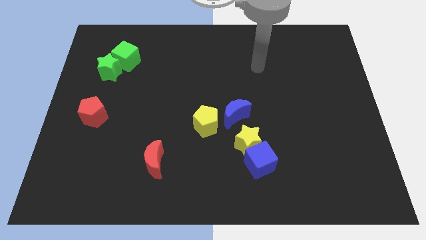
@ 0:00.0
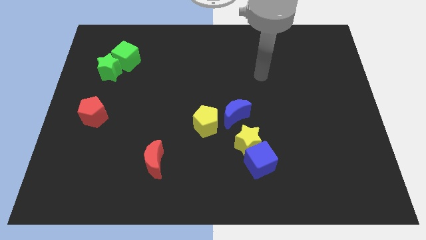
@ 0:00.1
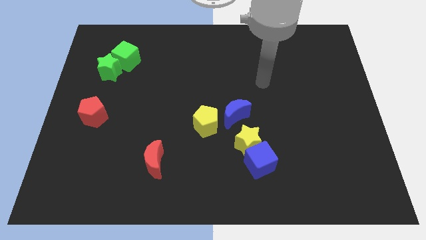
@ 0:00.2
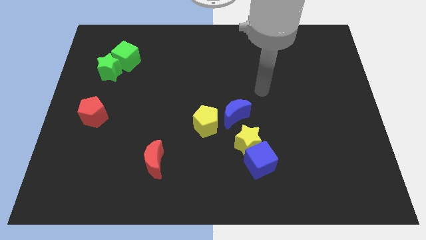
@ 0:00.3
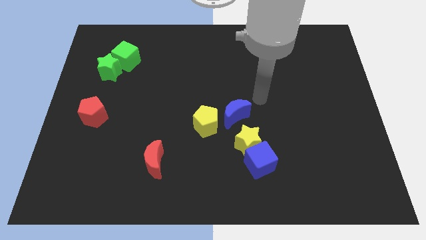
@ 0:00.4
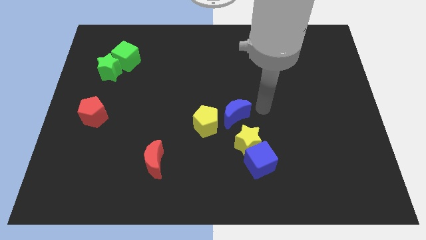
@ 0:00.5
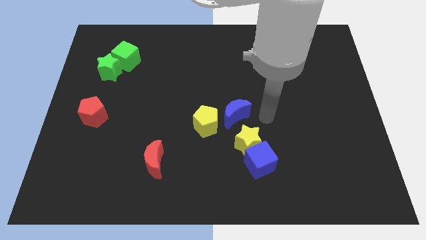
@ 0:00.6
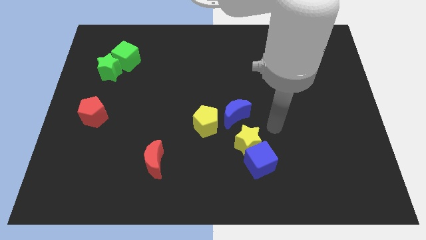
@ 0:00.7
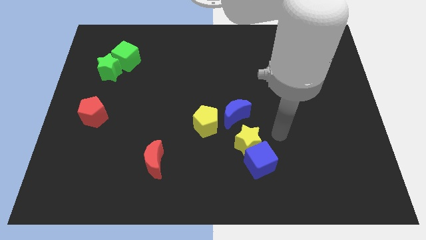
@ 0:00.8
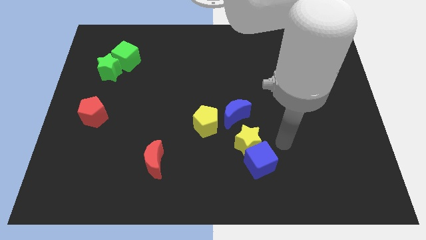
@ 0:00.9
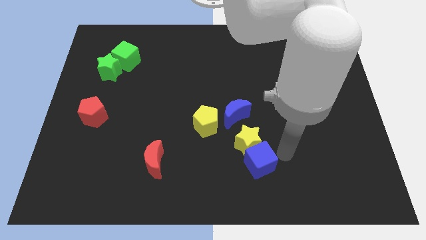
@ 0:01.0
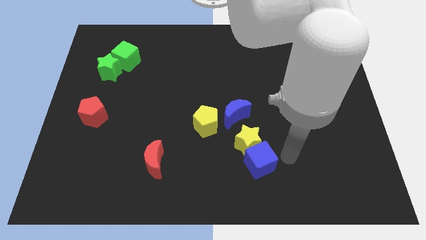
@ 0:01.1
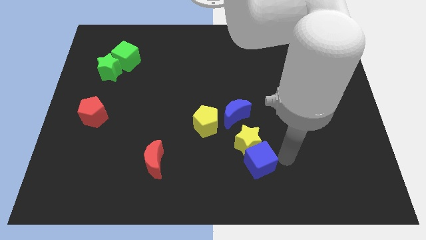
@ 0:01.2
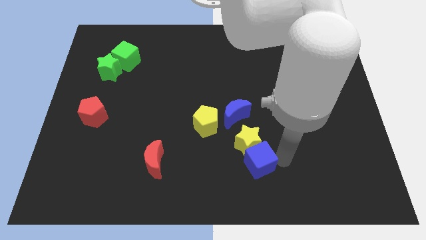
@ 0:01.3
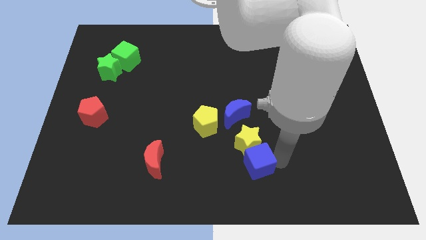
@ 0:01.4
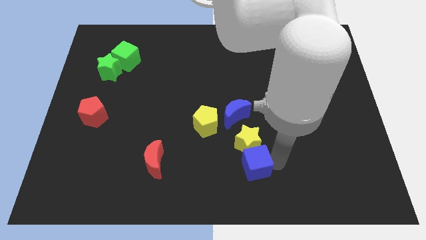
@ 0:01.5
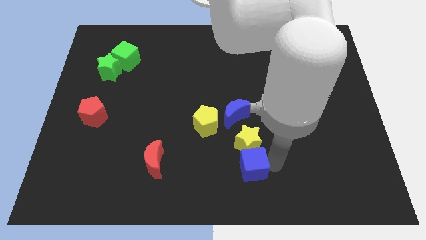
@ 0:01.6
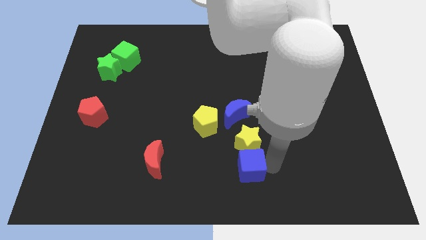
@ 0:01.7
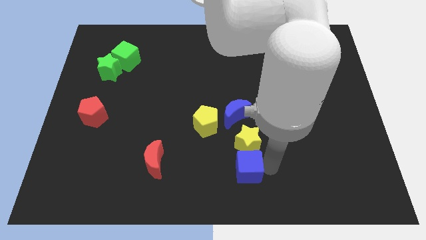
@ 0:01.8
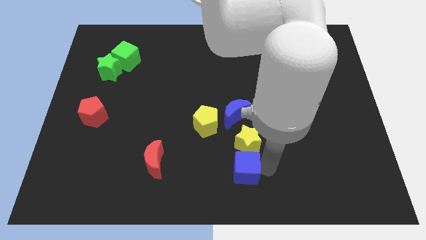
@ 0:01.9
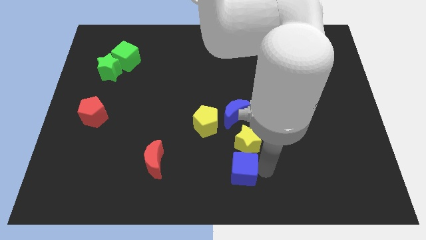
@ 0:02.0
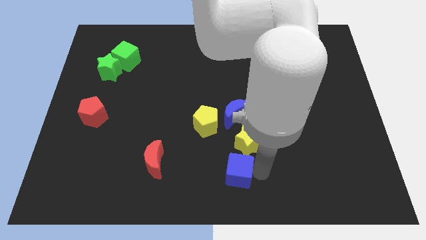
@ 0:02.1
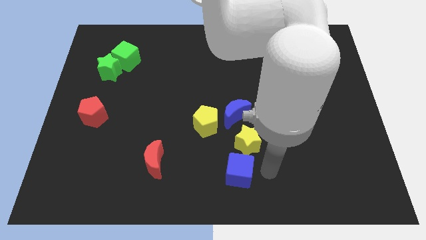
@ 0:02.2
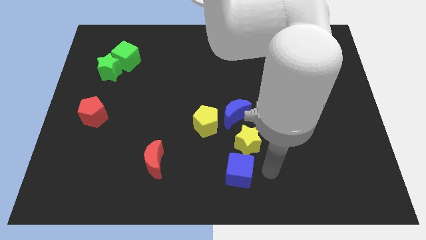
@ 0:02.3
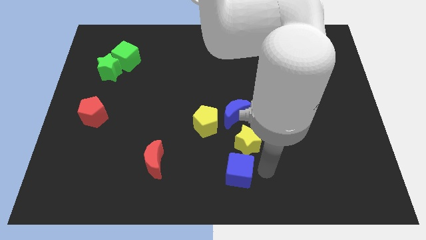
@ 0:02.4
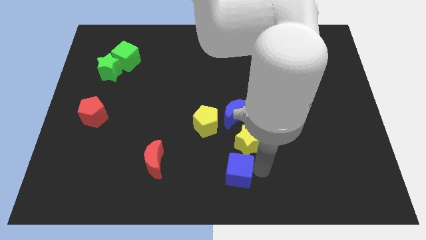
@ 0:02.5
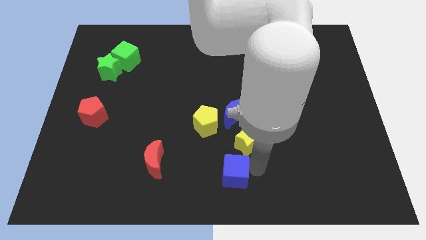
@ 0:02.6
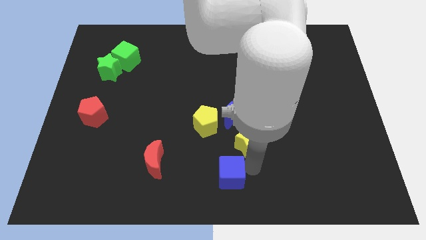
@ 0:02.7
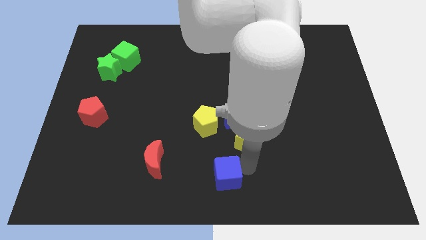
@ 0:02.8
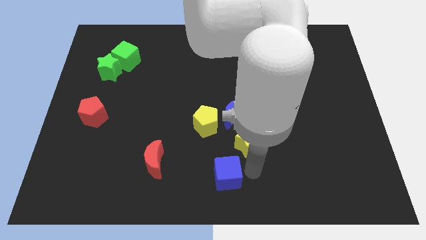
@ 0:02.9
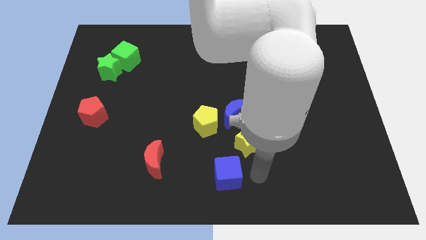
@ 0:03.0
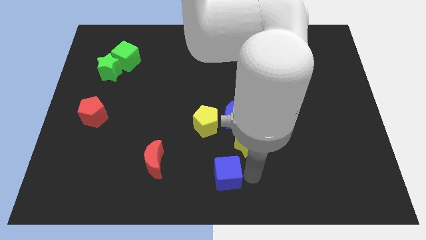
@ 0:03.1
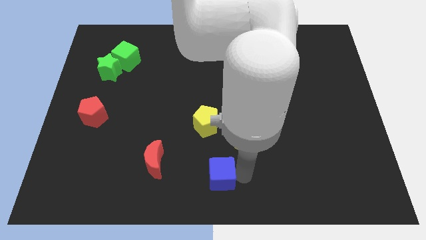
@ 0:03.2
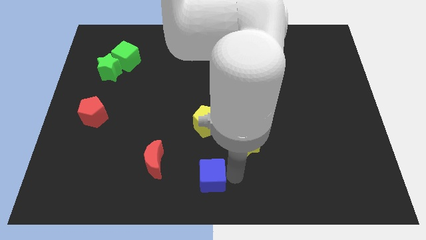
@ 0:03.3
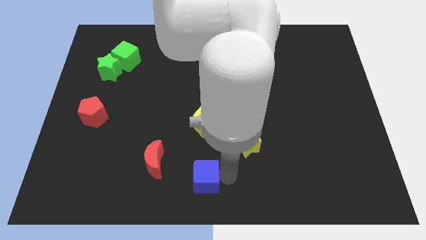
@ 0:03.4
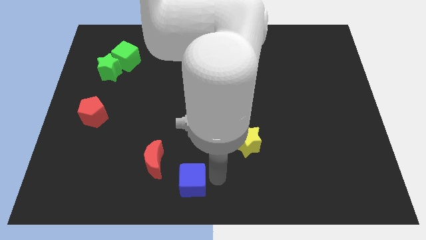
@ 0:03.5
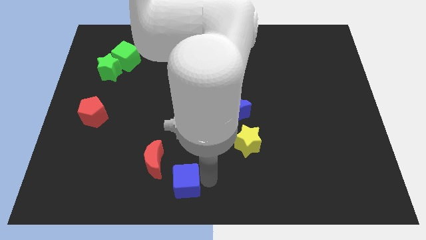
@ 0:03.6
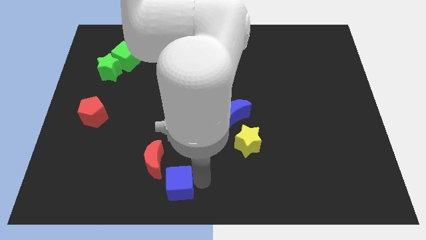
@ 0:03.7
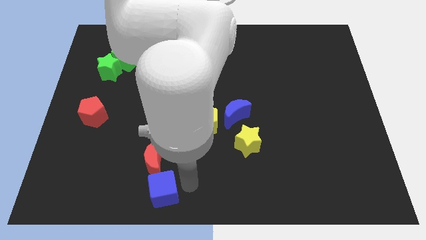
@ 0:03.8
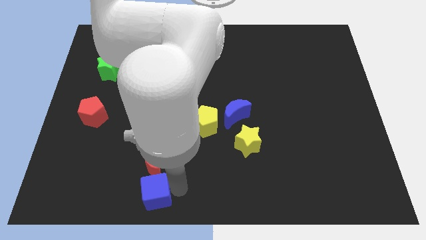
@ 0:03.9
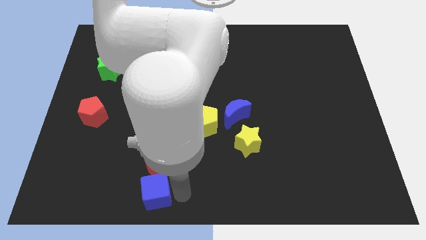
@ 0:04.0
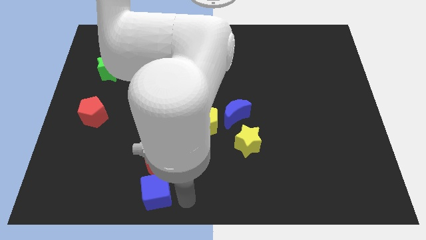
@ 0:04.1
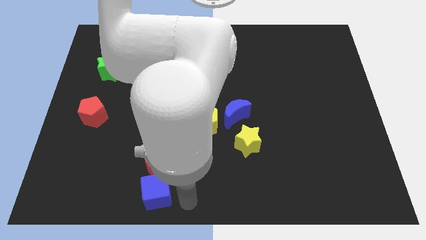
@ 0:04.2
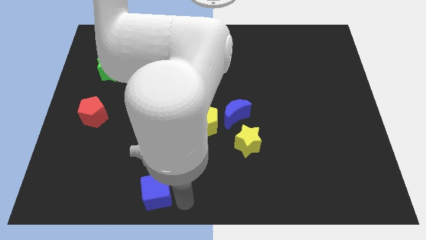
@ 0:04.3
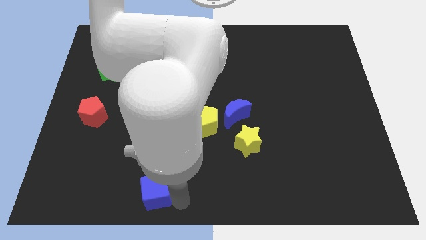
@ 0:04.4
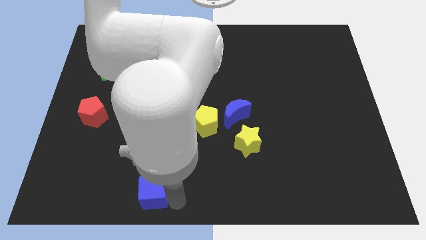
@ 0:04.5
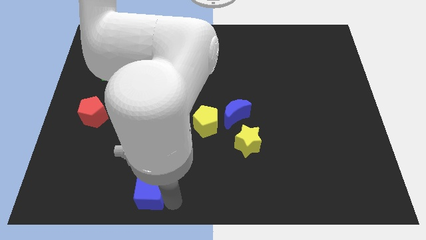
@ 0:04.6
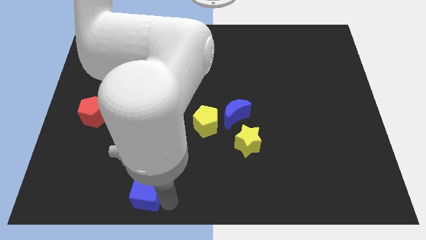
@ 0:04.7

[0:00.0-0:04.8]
push the blue cube to the bottom left side of the red moon

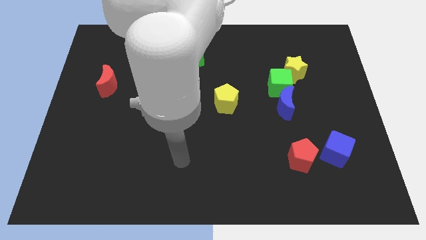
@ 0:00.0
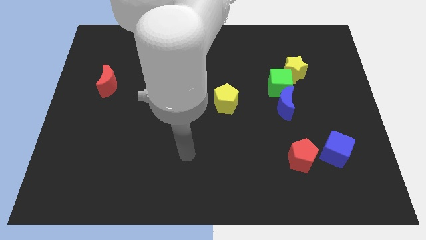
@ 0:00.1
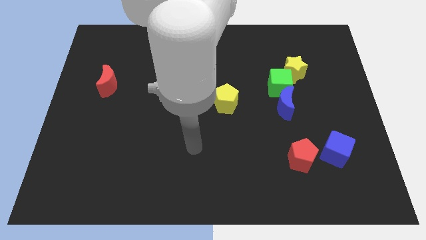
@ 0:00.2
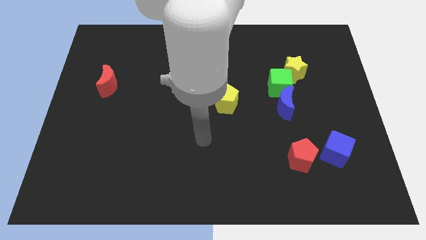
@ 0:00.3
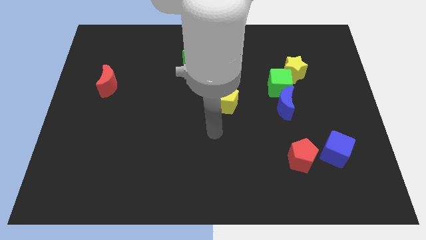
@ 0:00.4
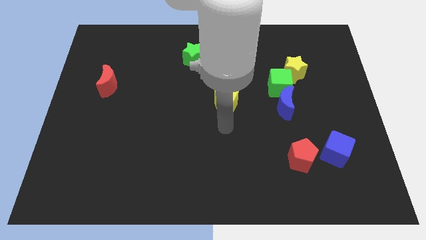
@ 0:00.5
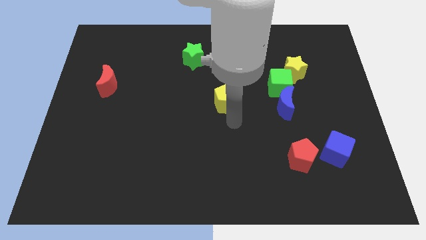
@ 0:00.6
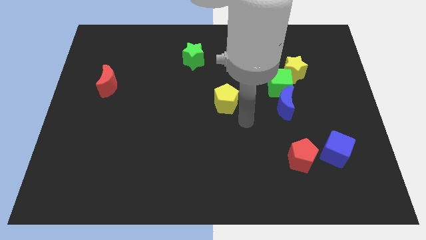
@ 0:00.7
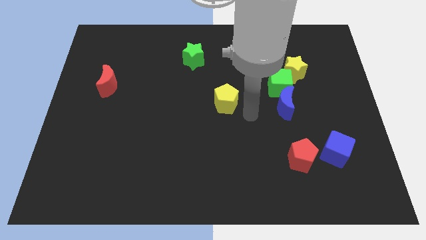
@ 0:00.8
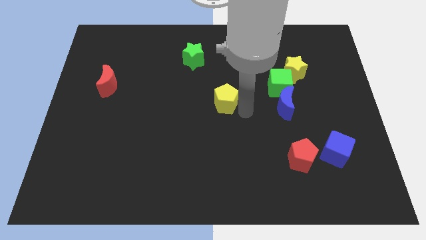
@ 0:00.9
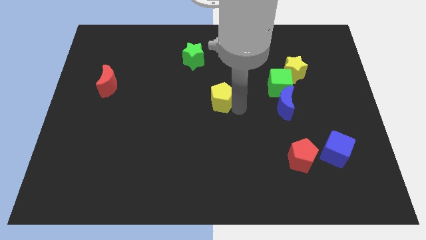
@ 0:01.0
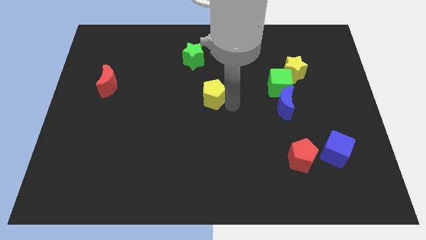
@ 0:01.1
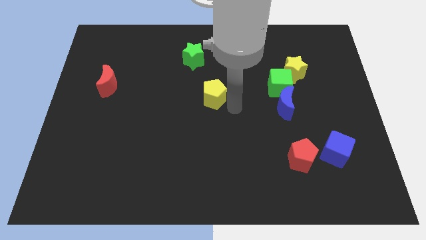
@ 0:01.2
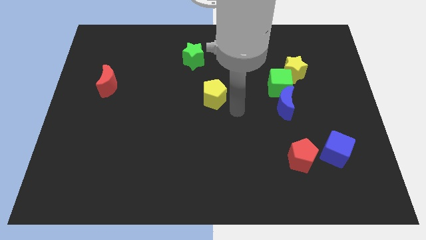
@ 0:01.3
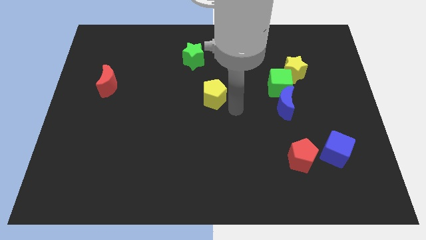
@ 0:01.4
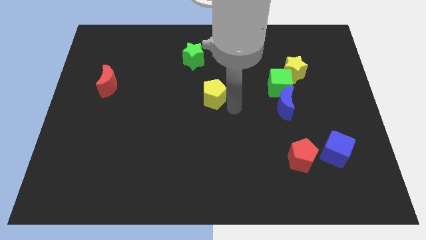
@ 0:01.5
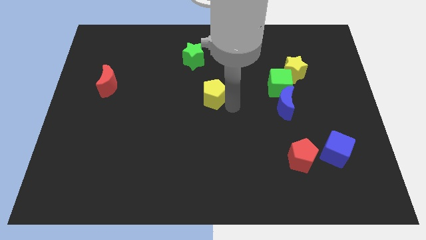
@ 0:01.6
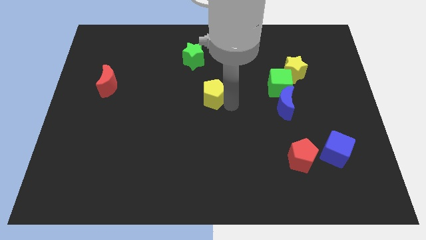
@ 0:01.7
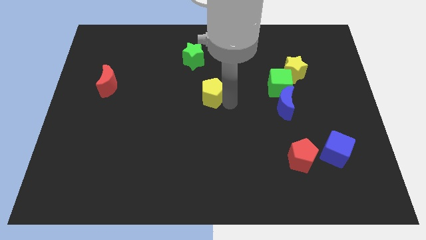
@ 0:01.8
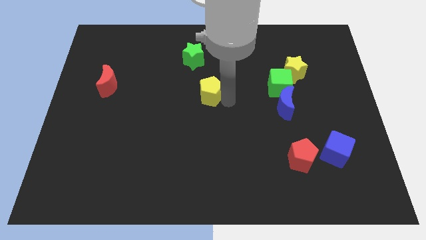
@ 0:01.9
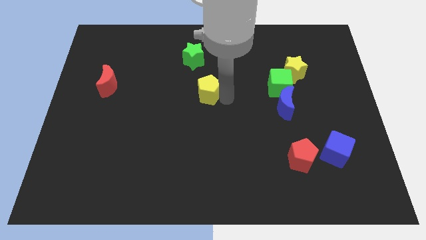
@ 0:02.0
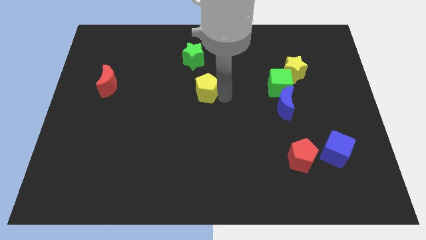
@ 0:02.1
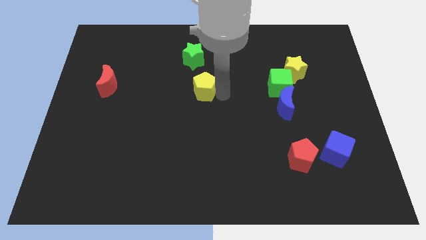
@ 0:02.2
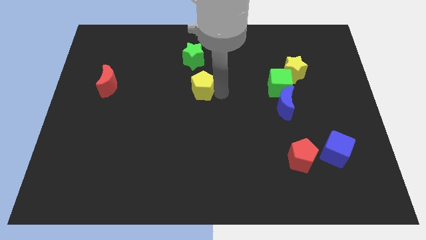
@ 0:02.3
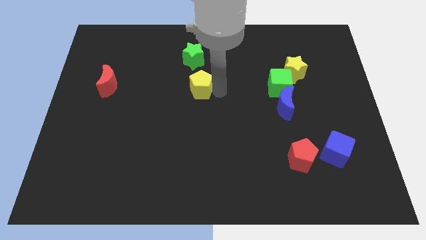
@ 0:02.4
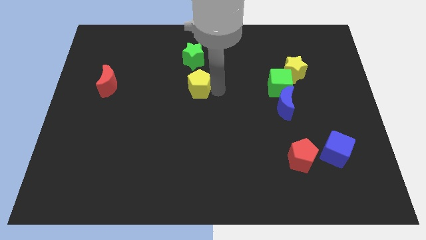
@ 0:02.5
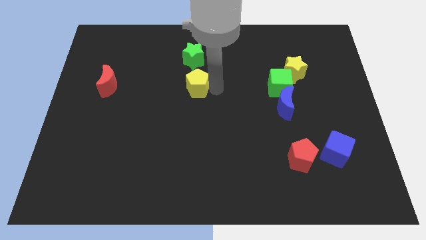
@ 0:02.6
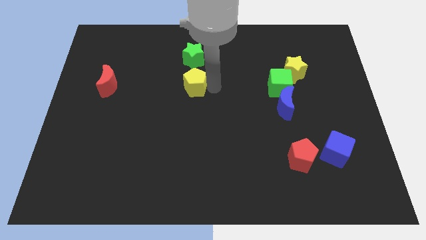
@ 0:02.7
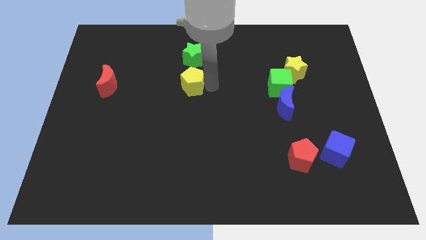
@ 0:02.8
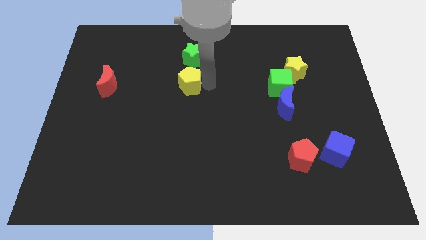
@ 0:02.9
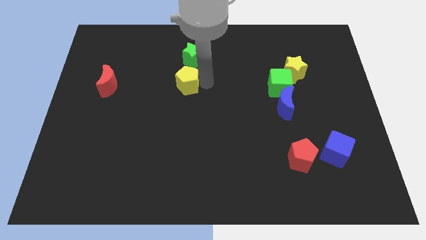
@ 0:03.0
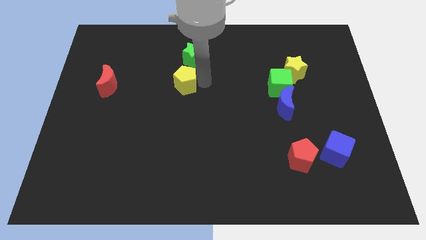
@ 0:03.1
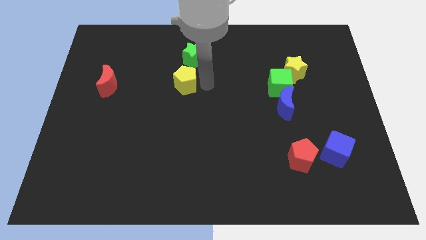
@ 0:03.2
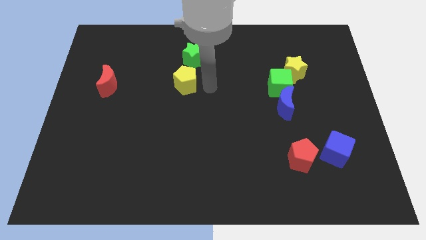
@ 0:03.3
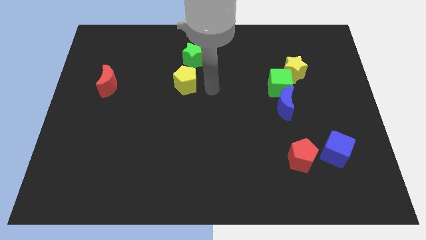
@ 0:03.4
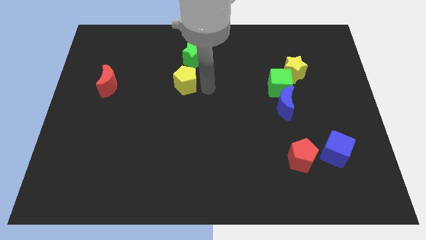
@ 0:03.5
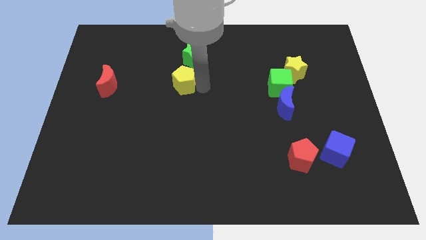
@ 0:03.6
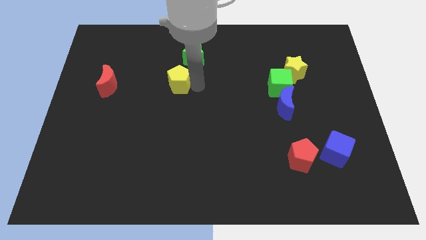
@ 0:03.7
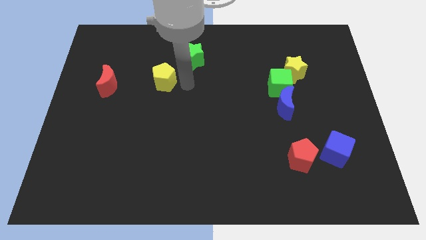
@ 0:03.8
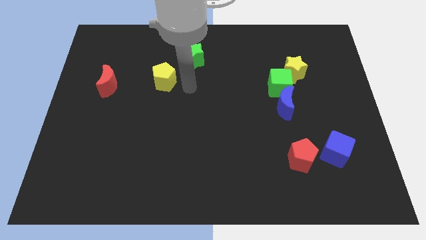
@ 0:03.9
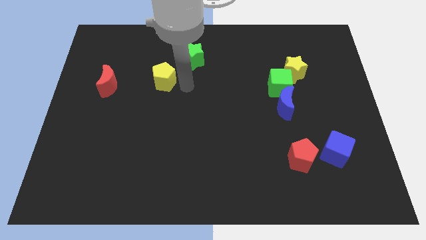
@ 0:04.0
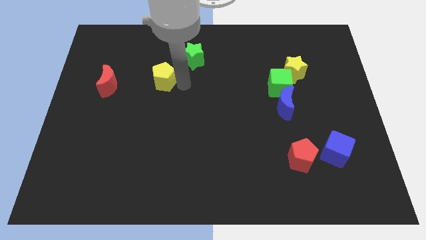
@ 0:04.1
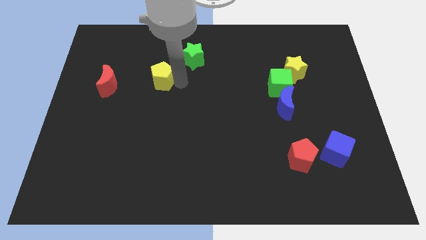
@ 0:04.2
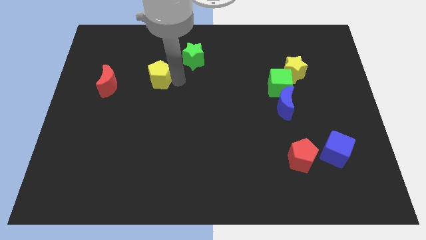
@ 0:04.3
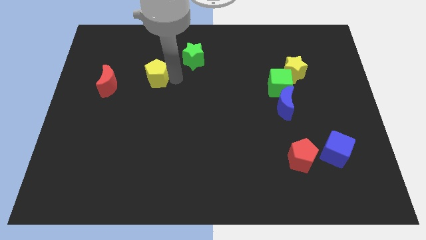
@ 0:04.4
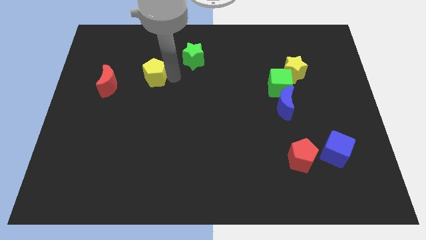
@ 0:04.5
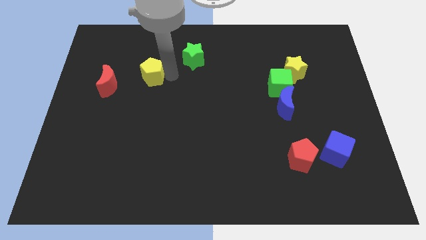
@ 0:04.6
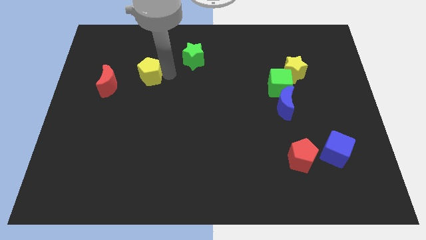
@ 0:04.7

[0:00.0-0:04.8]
move the yellow pentagon diagonally up and to the right of the red moon
